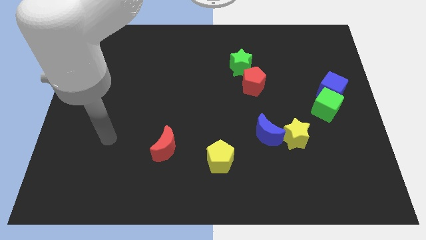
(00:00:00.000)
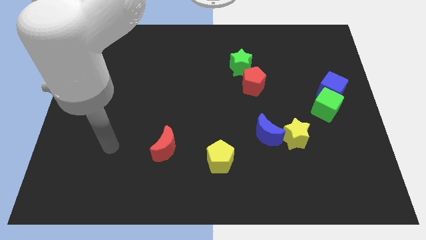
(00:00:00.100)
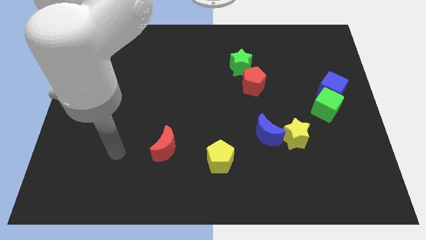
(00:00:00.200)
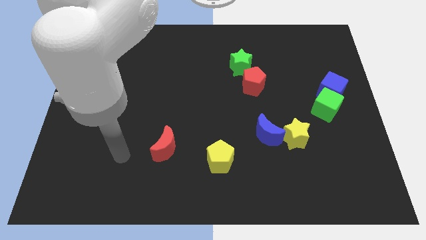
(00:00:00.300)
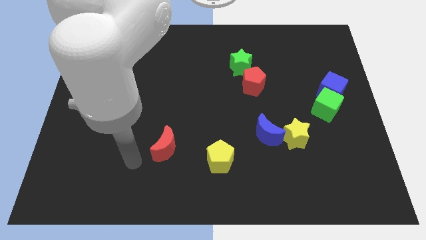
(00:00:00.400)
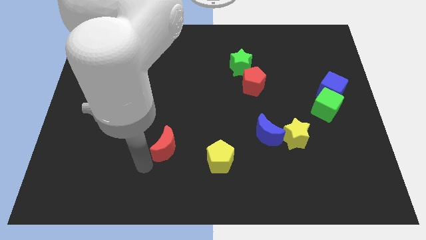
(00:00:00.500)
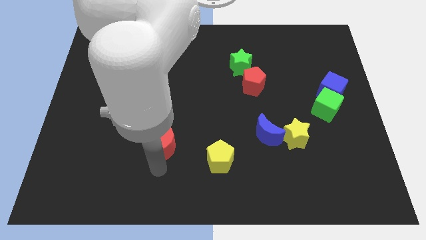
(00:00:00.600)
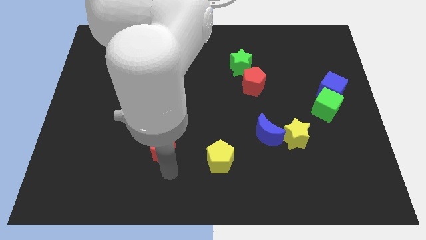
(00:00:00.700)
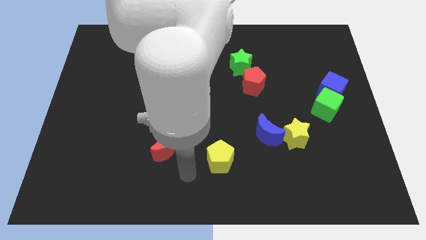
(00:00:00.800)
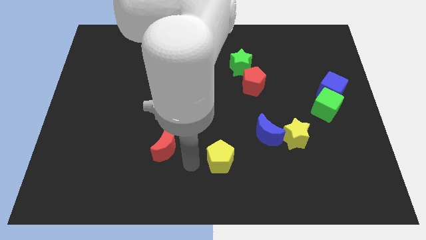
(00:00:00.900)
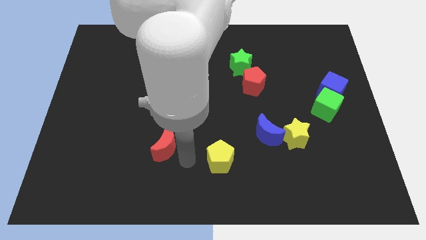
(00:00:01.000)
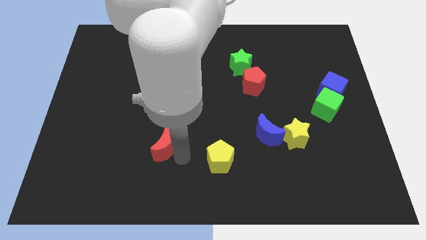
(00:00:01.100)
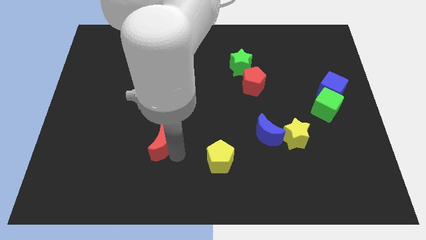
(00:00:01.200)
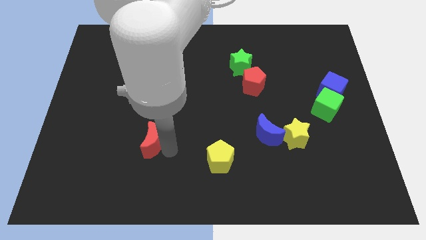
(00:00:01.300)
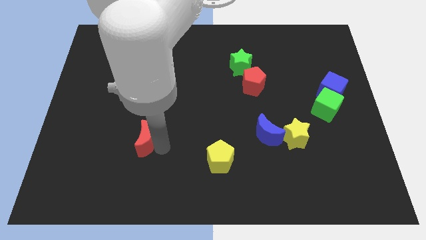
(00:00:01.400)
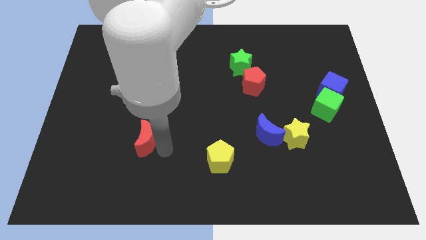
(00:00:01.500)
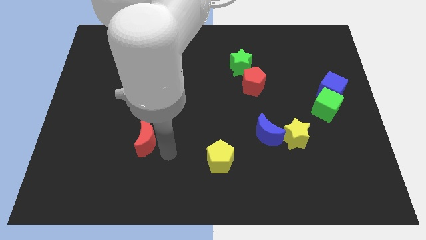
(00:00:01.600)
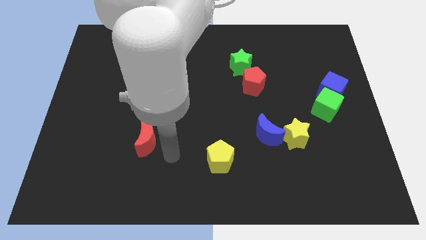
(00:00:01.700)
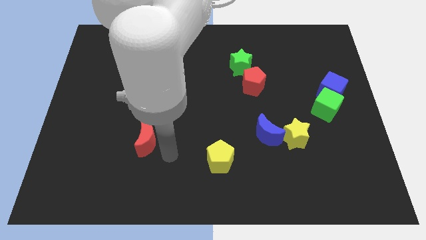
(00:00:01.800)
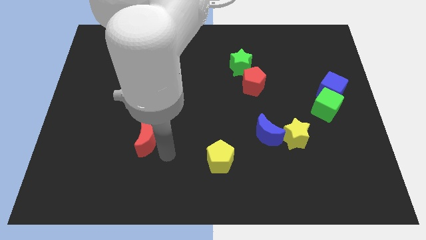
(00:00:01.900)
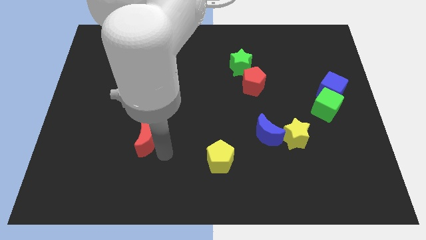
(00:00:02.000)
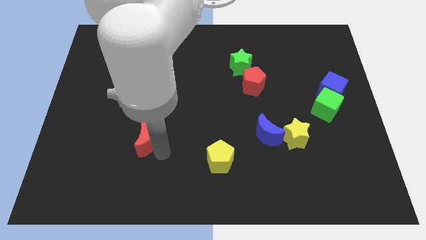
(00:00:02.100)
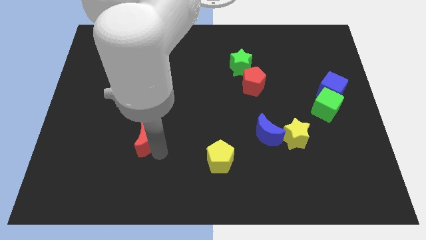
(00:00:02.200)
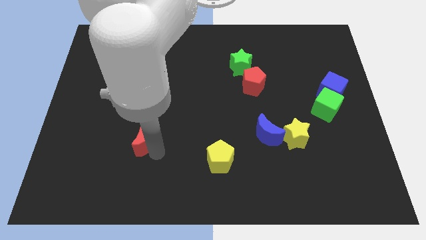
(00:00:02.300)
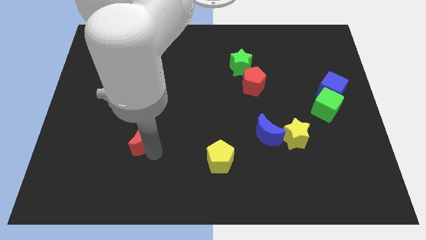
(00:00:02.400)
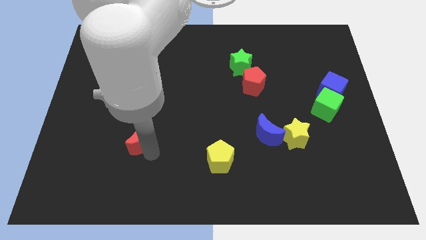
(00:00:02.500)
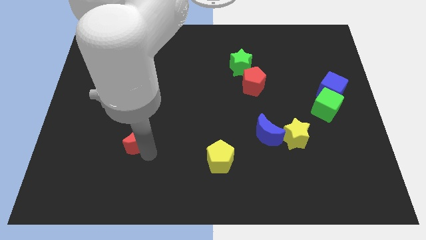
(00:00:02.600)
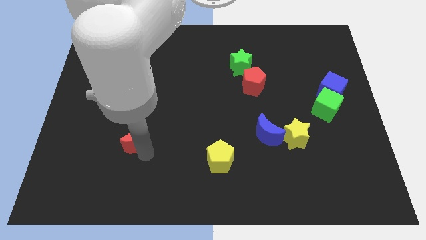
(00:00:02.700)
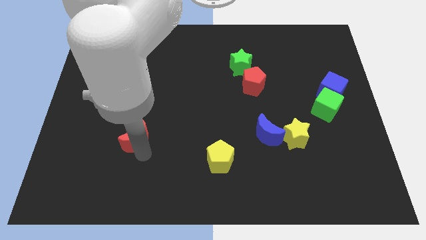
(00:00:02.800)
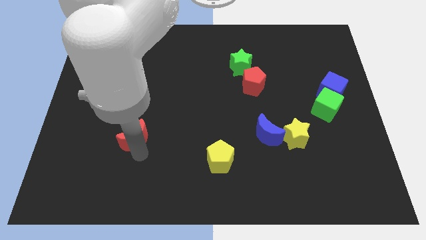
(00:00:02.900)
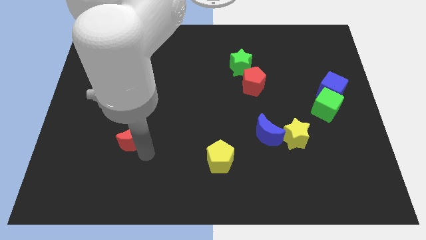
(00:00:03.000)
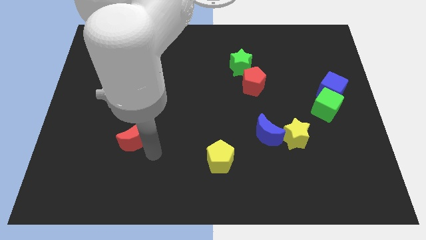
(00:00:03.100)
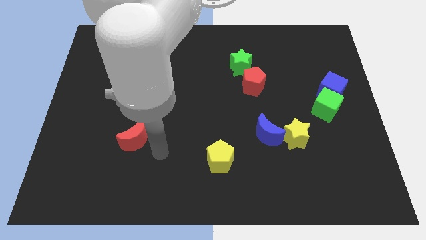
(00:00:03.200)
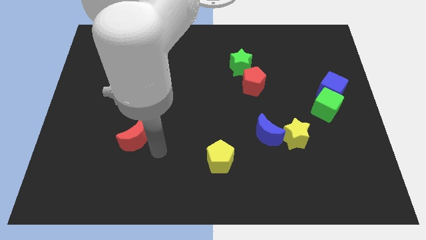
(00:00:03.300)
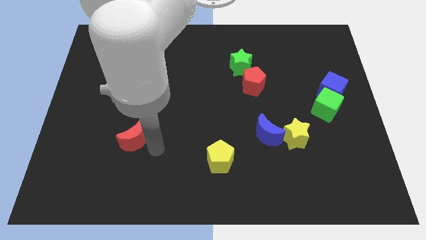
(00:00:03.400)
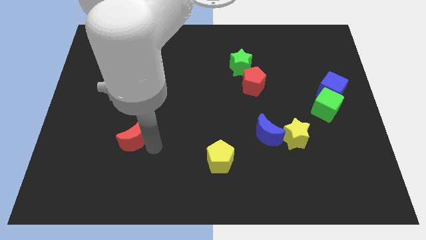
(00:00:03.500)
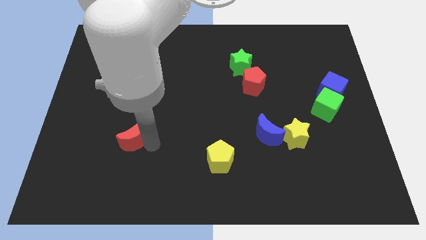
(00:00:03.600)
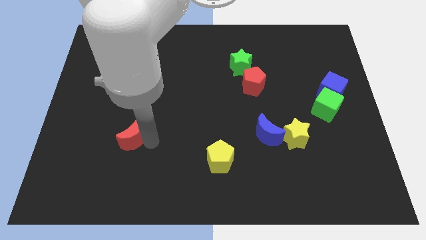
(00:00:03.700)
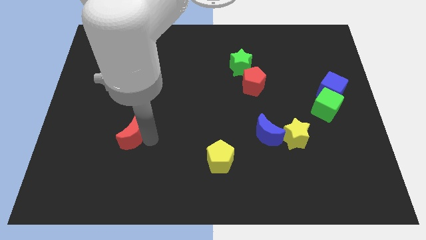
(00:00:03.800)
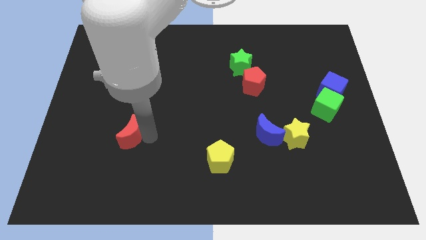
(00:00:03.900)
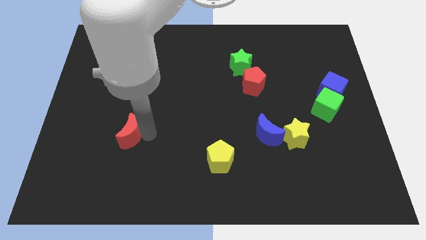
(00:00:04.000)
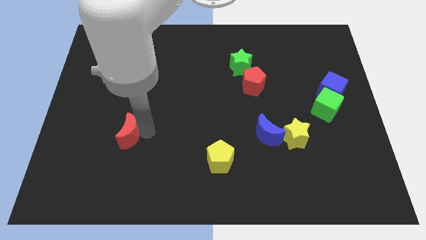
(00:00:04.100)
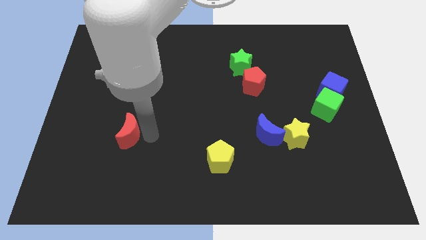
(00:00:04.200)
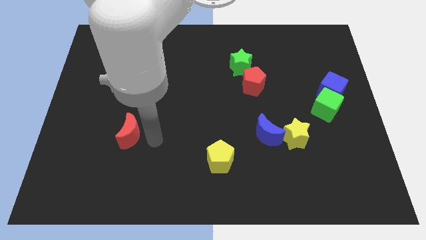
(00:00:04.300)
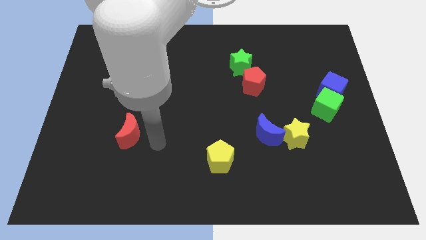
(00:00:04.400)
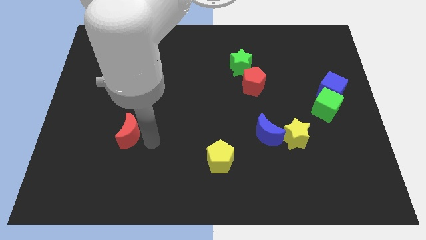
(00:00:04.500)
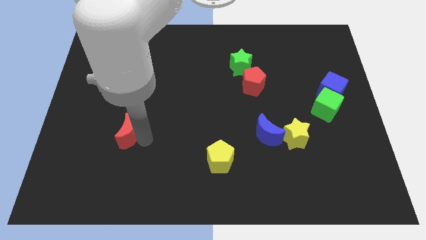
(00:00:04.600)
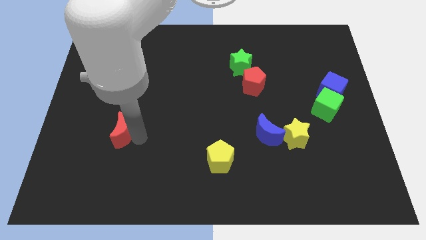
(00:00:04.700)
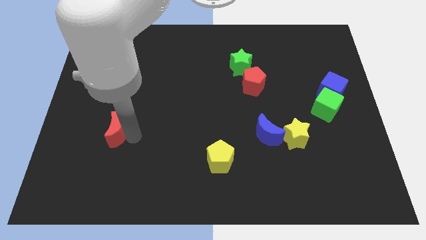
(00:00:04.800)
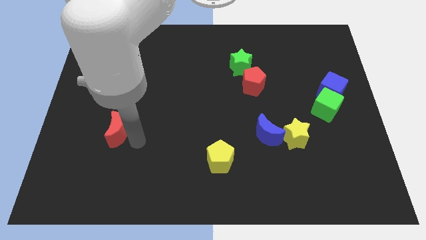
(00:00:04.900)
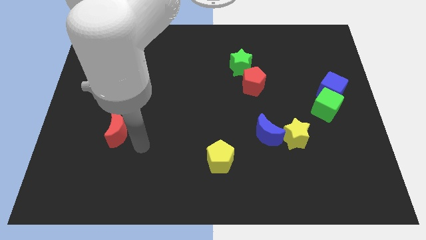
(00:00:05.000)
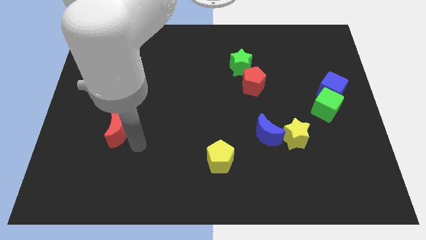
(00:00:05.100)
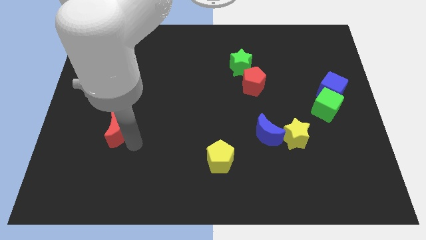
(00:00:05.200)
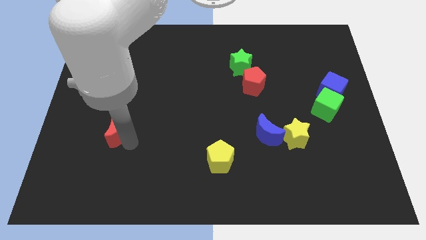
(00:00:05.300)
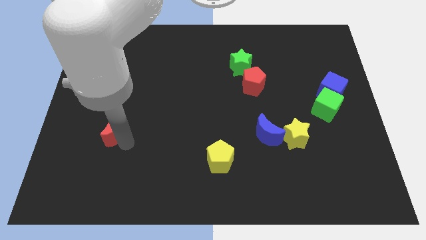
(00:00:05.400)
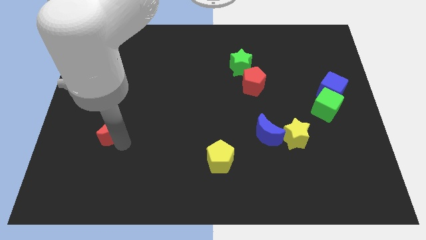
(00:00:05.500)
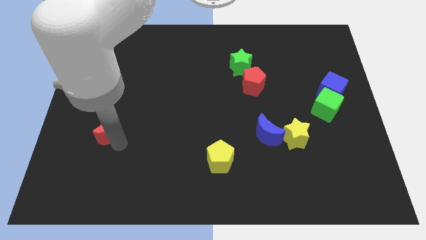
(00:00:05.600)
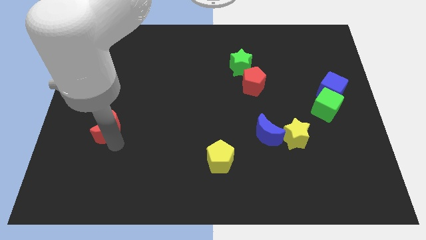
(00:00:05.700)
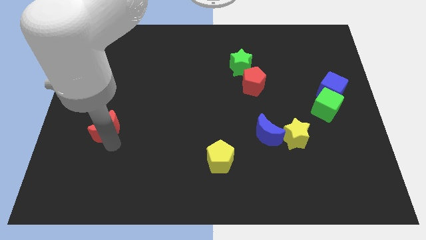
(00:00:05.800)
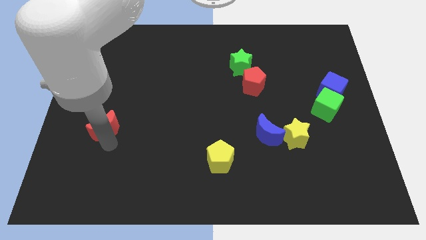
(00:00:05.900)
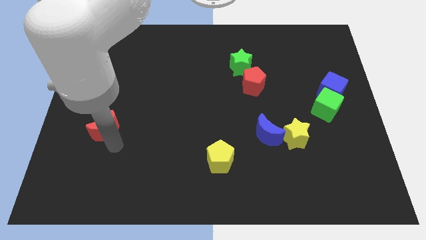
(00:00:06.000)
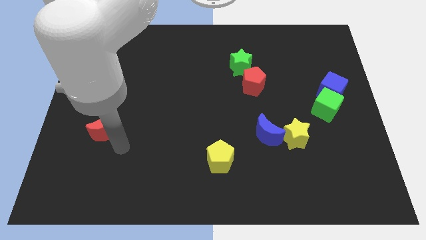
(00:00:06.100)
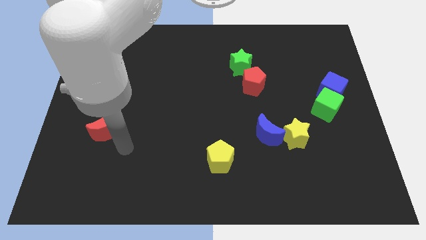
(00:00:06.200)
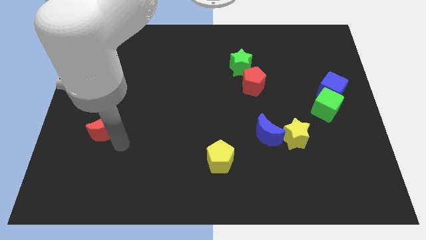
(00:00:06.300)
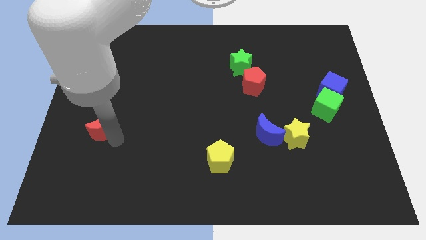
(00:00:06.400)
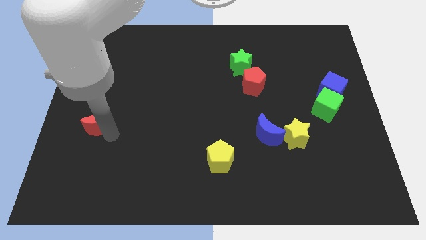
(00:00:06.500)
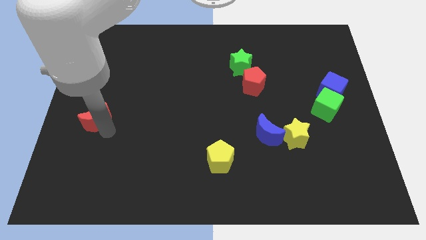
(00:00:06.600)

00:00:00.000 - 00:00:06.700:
put the red moon to the left side of the board
